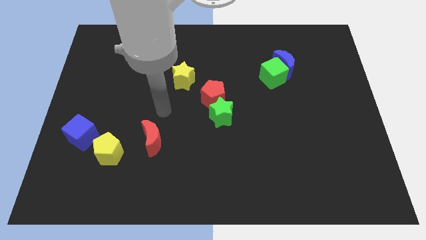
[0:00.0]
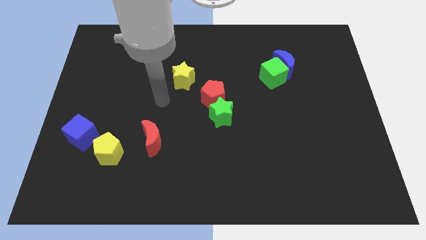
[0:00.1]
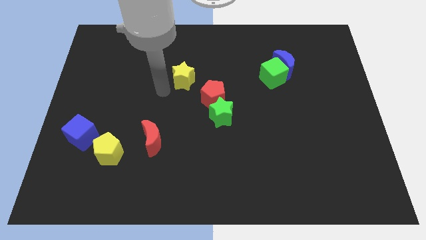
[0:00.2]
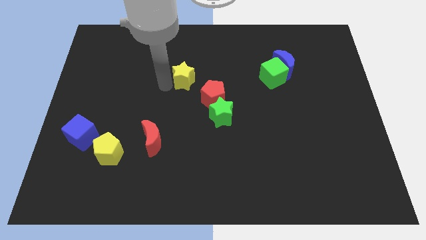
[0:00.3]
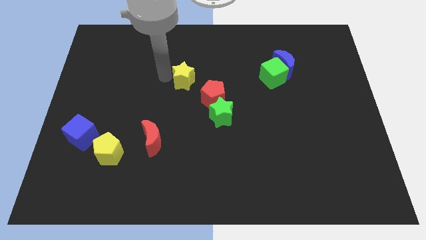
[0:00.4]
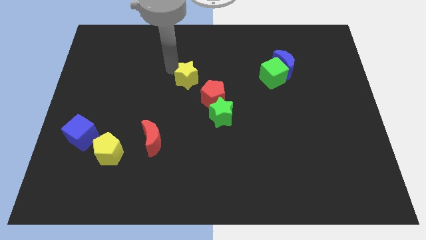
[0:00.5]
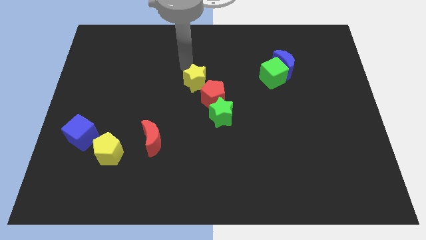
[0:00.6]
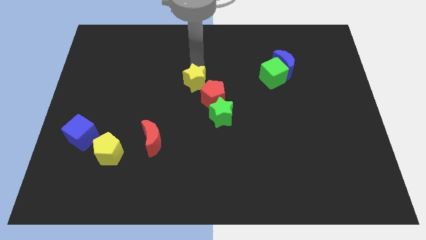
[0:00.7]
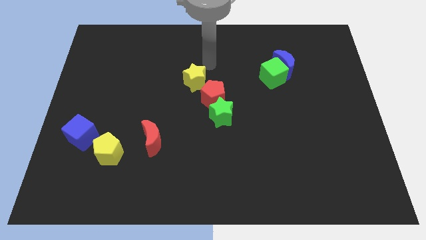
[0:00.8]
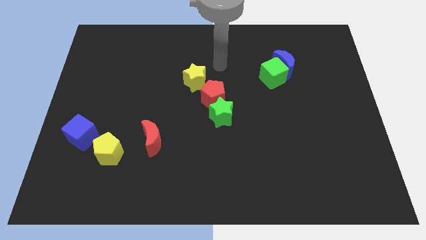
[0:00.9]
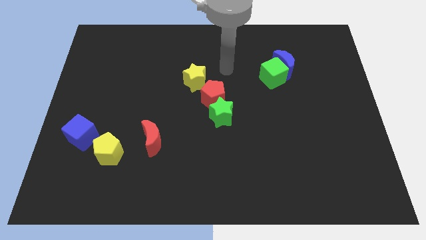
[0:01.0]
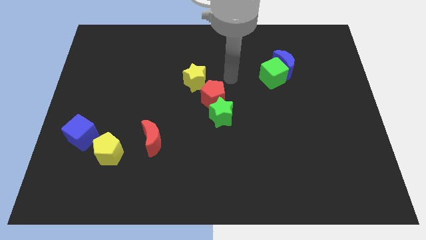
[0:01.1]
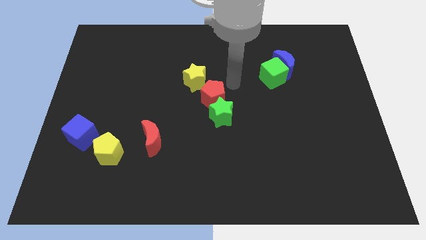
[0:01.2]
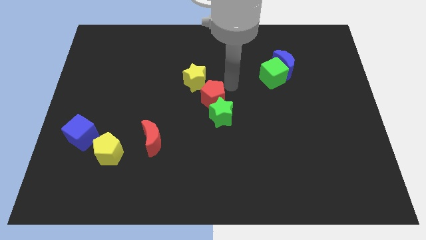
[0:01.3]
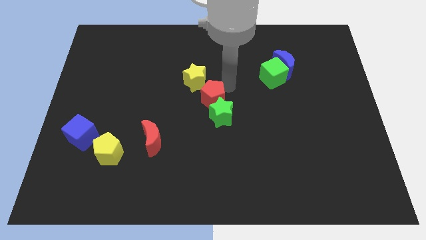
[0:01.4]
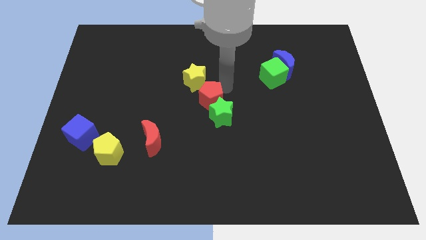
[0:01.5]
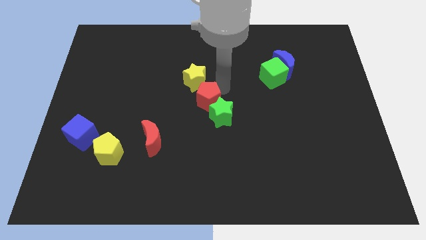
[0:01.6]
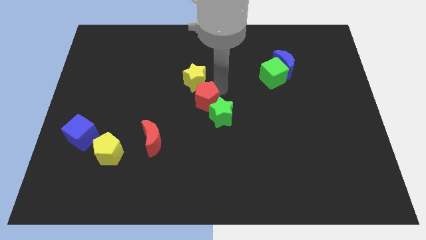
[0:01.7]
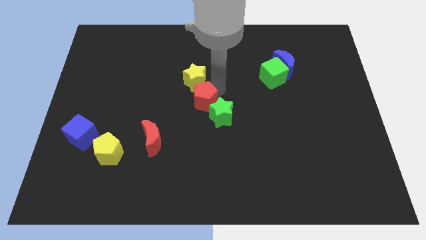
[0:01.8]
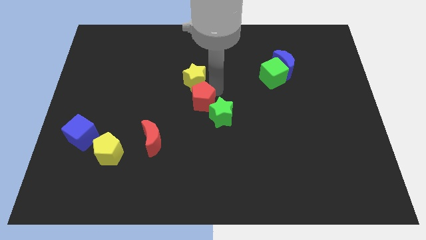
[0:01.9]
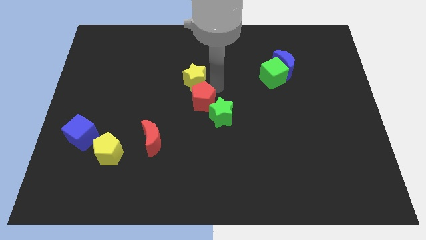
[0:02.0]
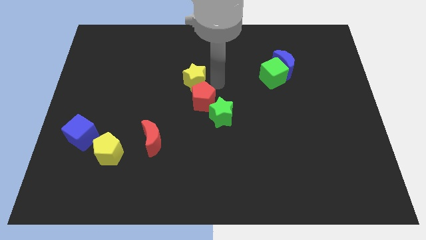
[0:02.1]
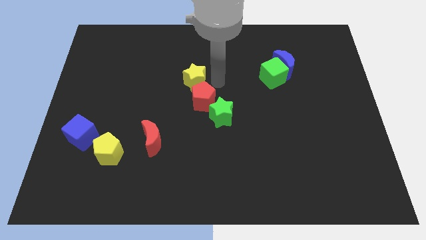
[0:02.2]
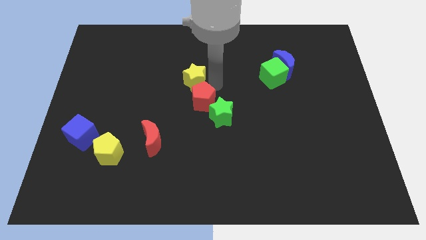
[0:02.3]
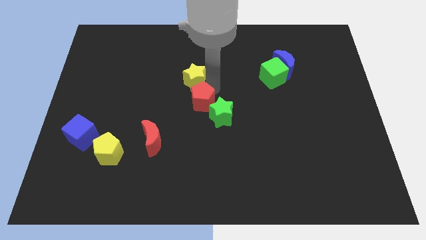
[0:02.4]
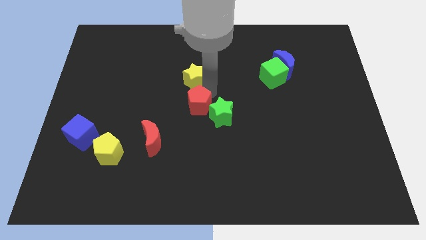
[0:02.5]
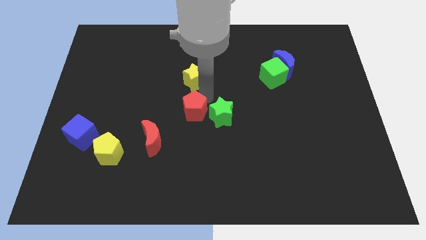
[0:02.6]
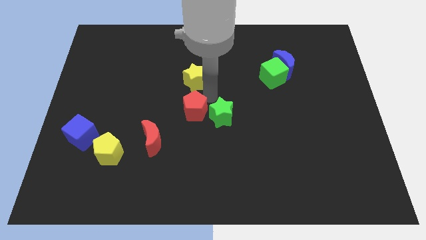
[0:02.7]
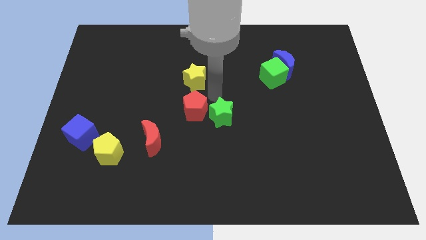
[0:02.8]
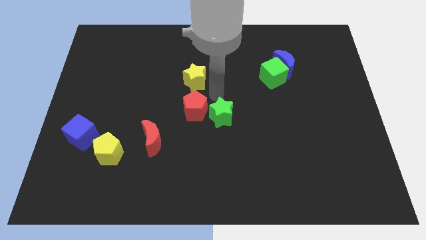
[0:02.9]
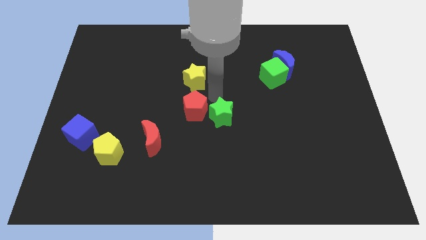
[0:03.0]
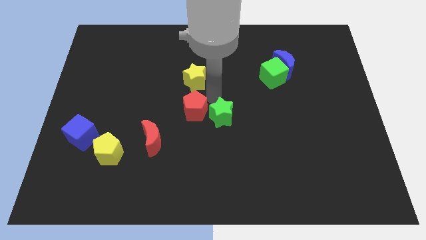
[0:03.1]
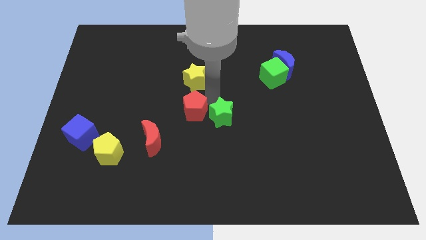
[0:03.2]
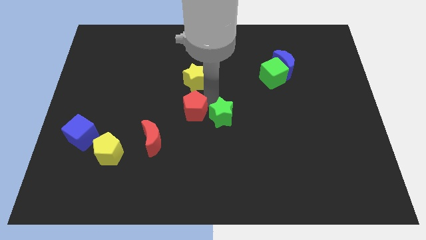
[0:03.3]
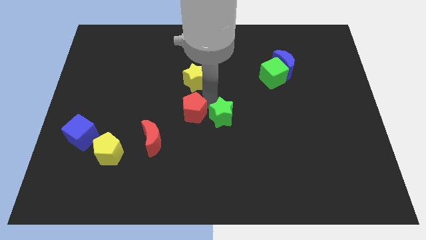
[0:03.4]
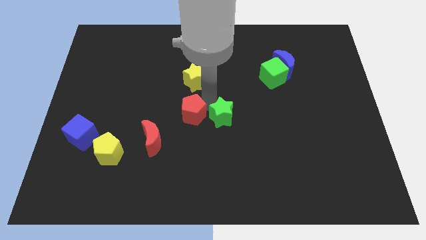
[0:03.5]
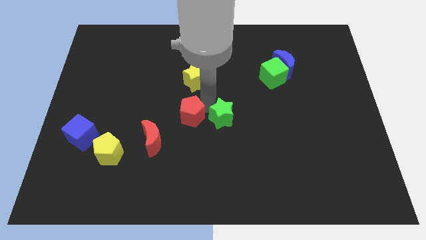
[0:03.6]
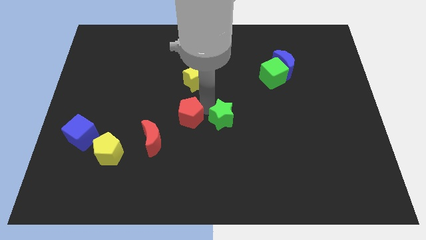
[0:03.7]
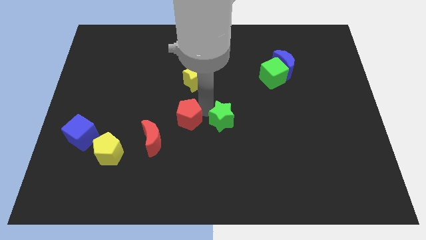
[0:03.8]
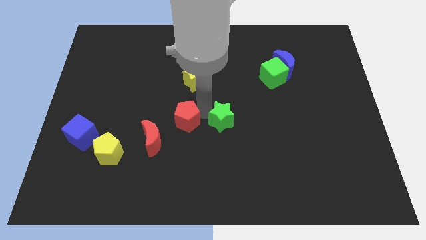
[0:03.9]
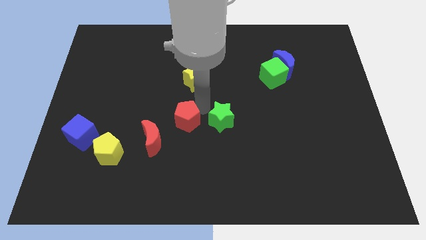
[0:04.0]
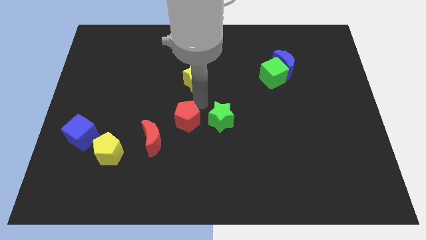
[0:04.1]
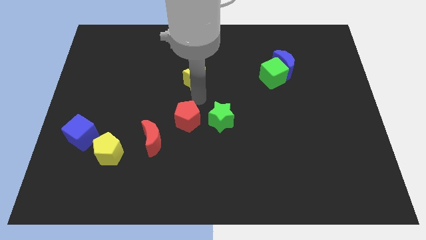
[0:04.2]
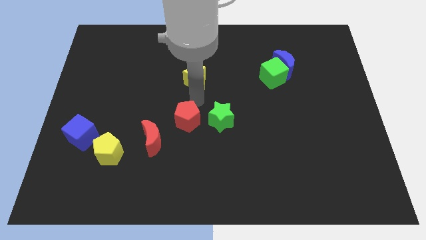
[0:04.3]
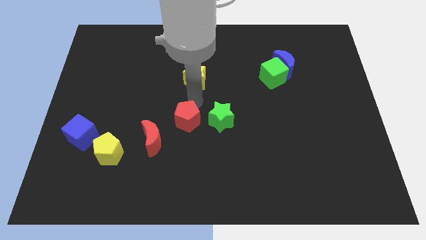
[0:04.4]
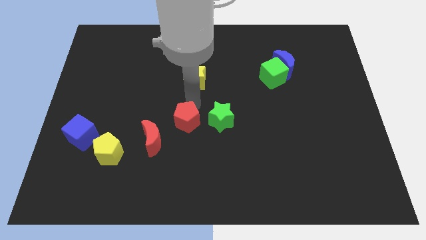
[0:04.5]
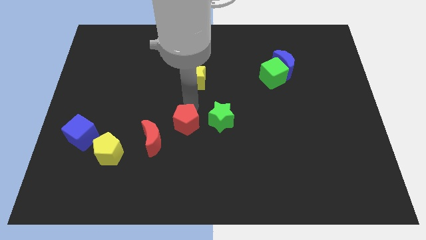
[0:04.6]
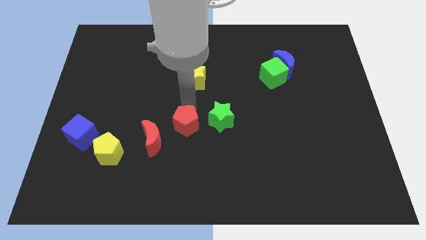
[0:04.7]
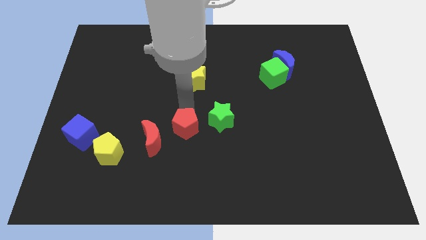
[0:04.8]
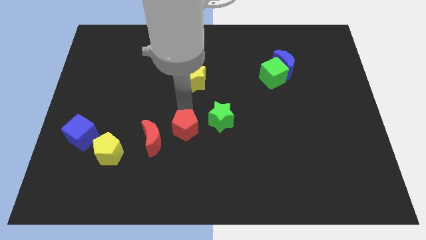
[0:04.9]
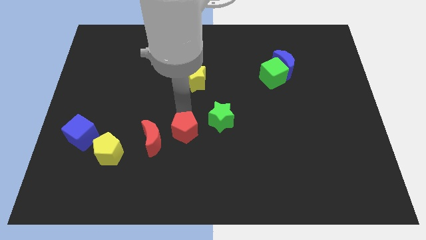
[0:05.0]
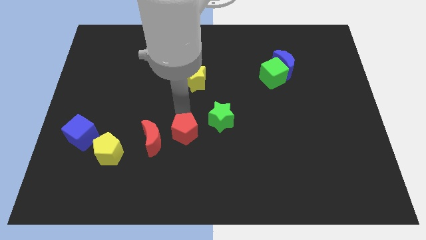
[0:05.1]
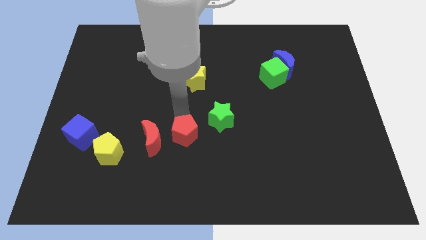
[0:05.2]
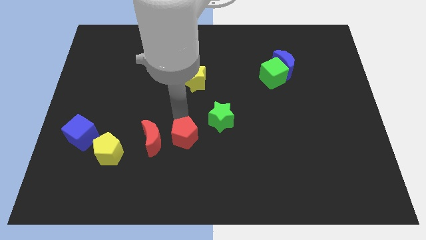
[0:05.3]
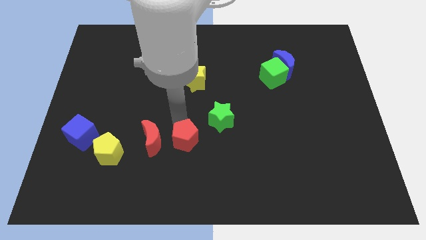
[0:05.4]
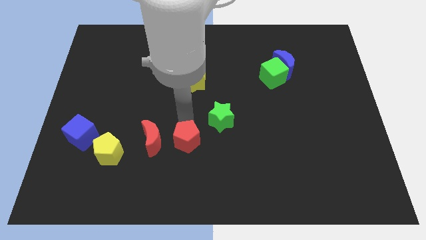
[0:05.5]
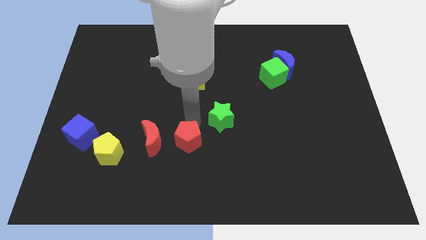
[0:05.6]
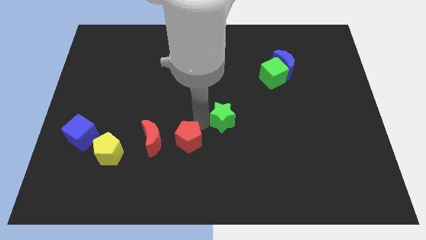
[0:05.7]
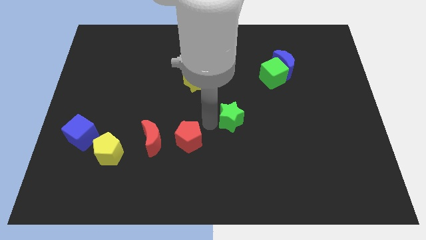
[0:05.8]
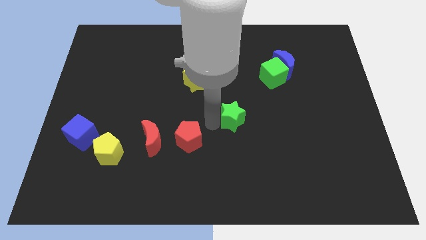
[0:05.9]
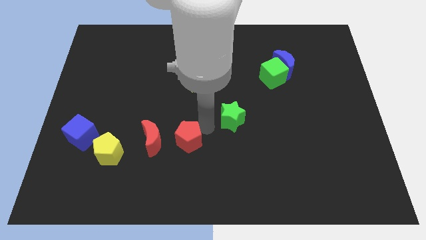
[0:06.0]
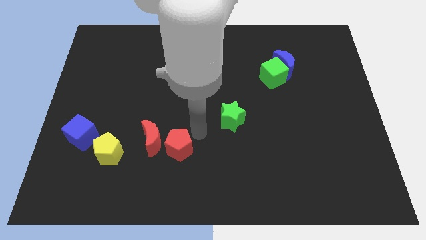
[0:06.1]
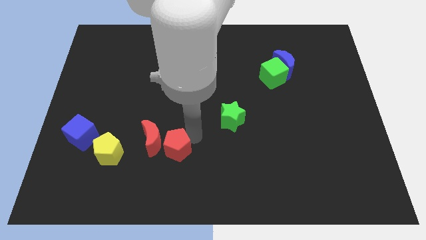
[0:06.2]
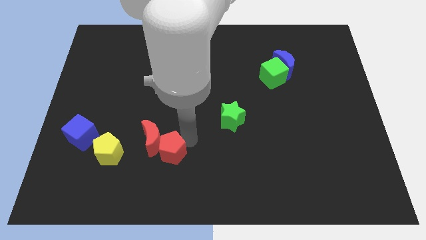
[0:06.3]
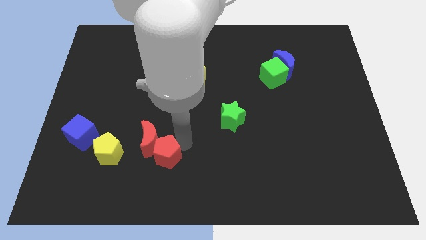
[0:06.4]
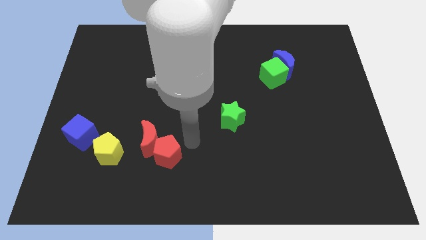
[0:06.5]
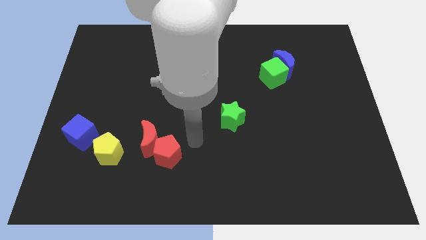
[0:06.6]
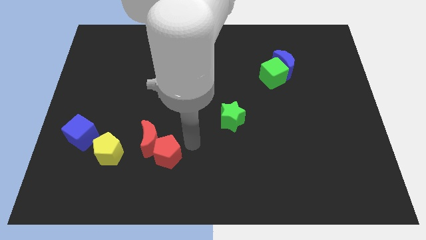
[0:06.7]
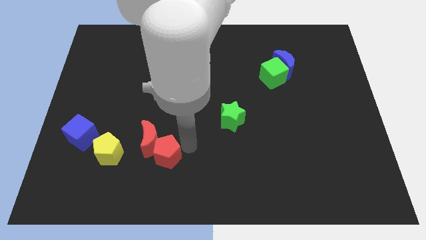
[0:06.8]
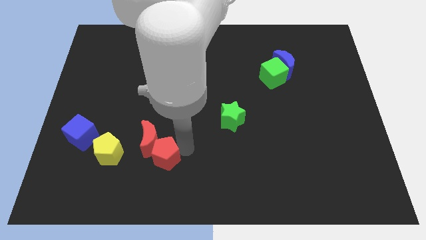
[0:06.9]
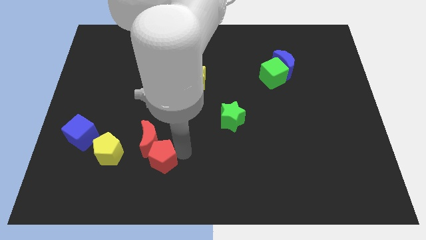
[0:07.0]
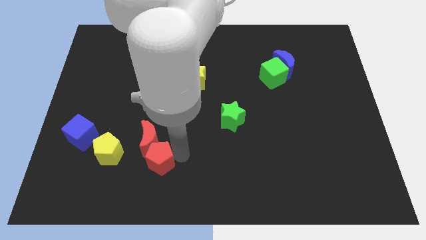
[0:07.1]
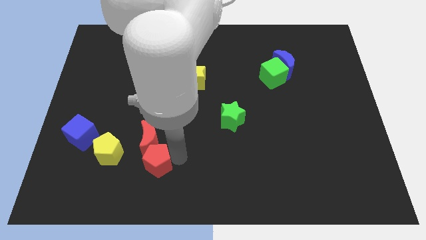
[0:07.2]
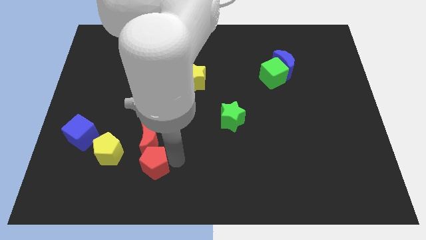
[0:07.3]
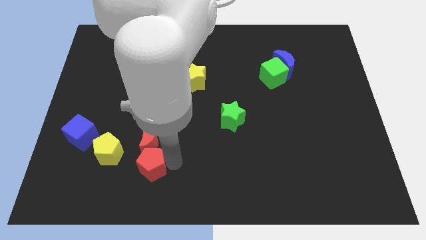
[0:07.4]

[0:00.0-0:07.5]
push the red pentagon to the bottom right side of the yellow pentagon
